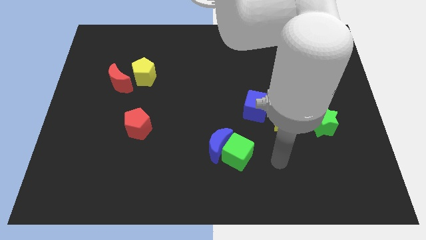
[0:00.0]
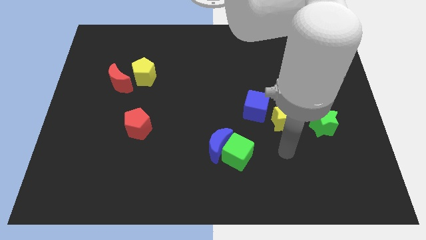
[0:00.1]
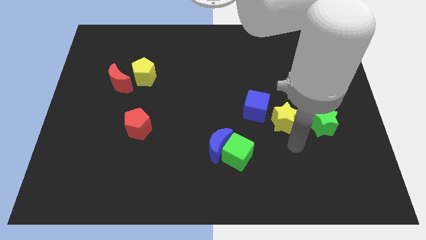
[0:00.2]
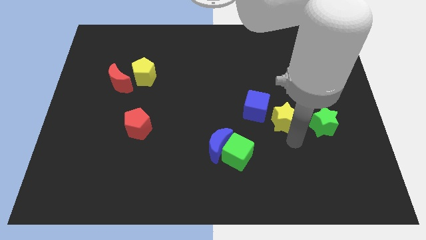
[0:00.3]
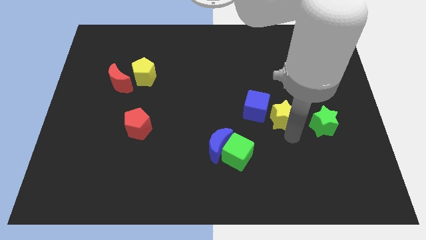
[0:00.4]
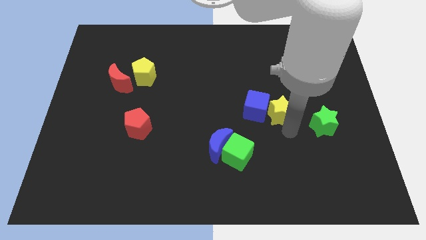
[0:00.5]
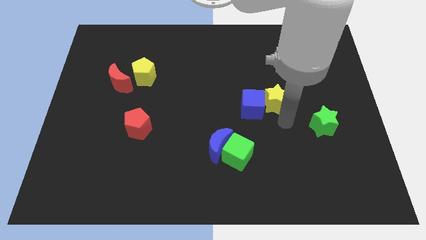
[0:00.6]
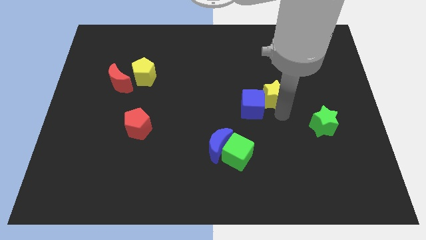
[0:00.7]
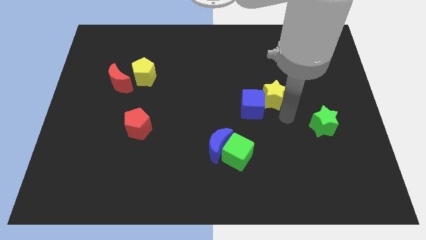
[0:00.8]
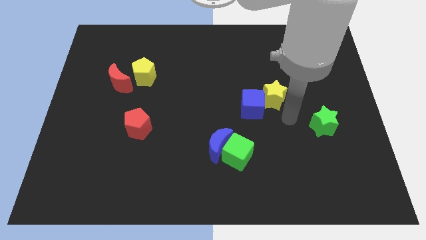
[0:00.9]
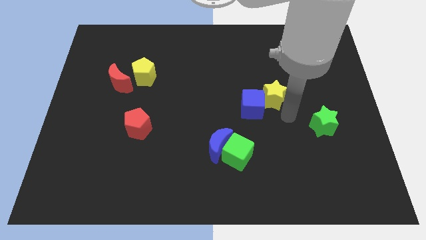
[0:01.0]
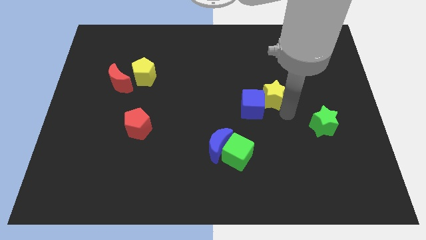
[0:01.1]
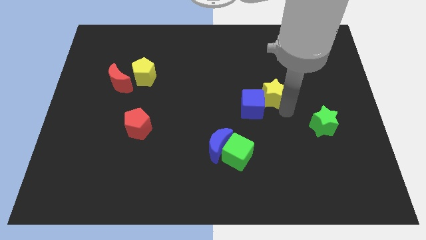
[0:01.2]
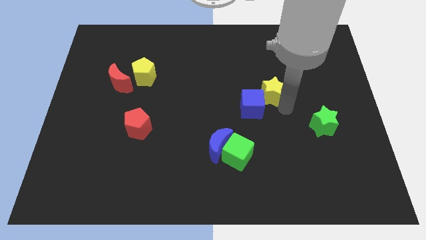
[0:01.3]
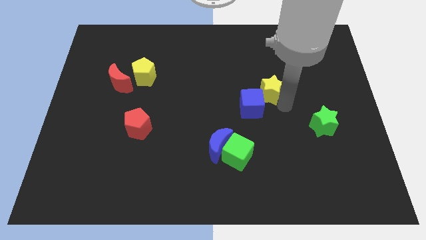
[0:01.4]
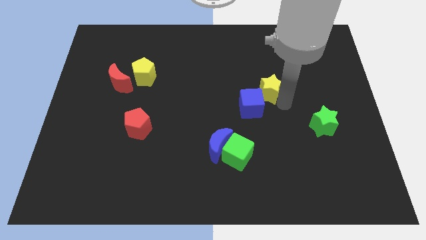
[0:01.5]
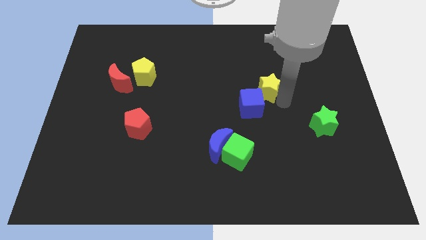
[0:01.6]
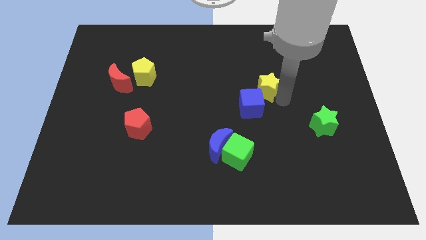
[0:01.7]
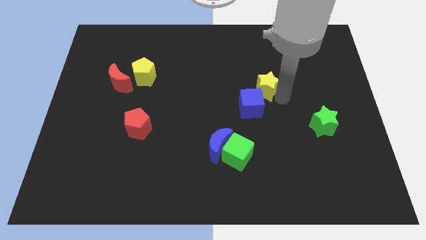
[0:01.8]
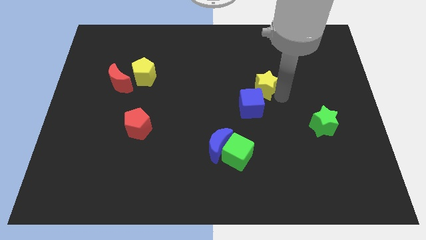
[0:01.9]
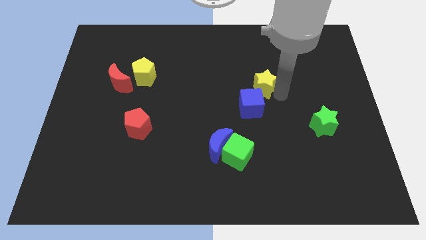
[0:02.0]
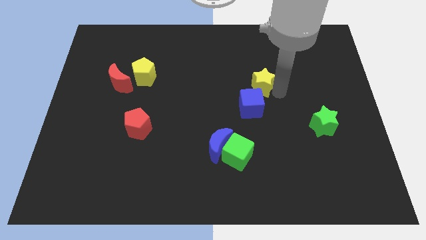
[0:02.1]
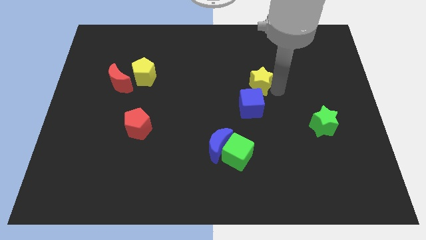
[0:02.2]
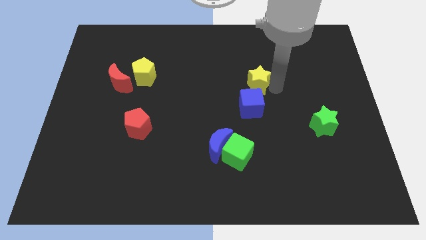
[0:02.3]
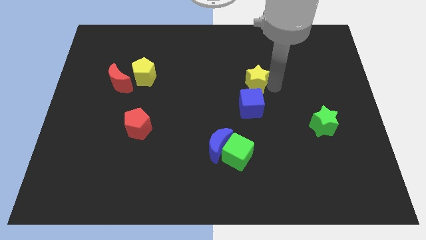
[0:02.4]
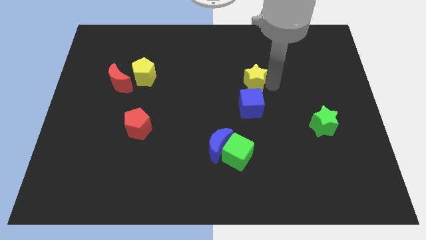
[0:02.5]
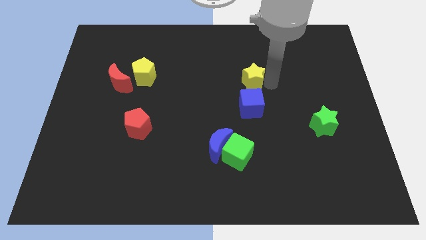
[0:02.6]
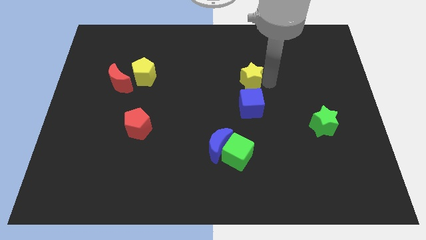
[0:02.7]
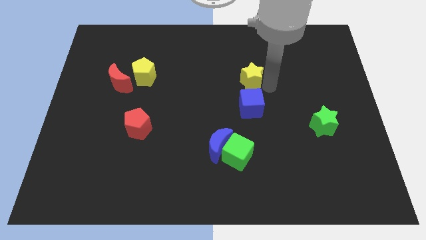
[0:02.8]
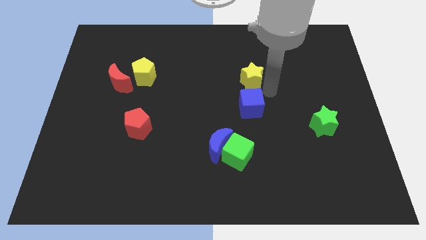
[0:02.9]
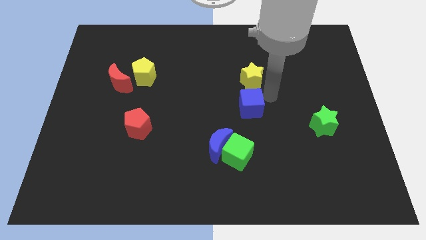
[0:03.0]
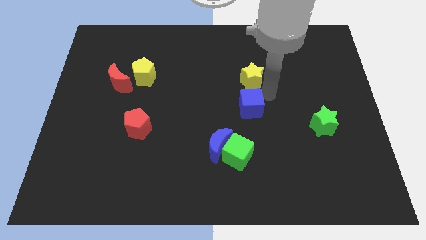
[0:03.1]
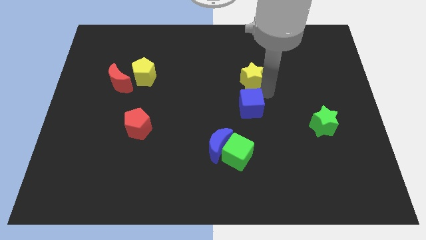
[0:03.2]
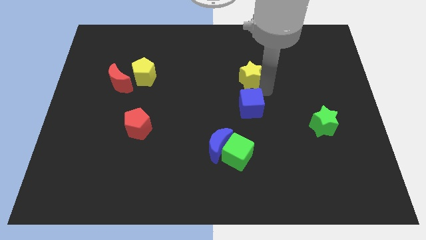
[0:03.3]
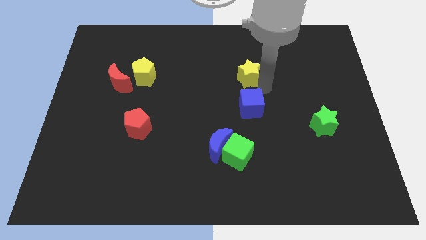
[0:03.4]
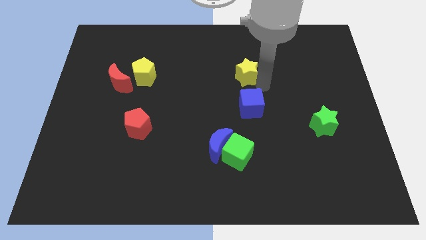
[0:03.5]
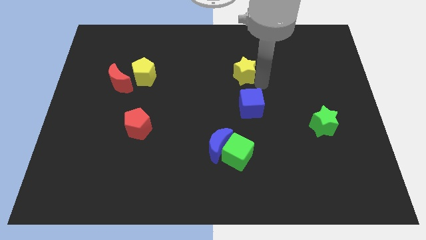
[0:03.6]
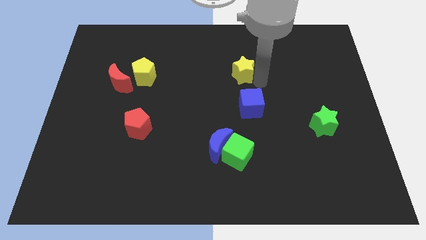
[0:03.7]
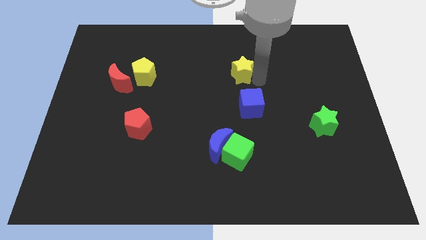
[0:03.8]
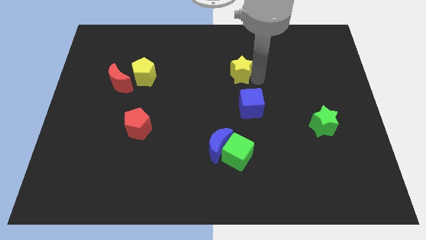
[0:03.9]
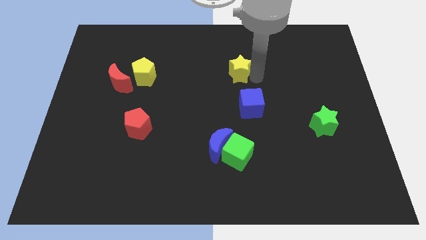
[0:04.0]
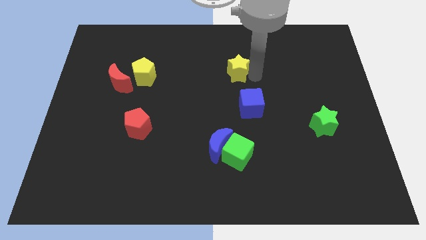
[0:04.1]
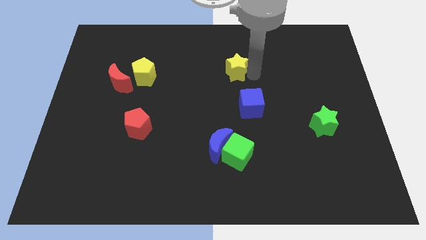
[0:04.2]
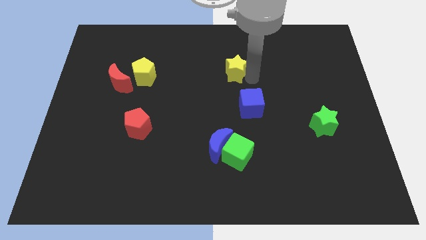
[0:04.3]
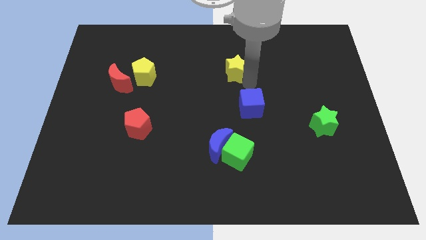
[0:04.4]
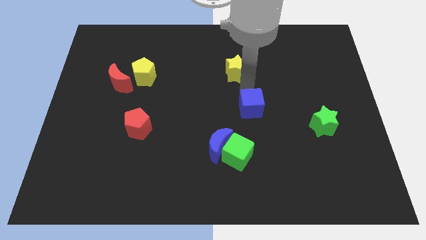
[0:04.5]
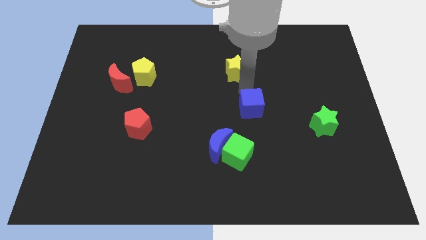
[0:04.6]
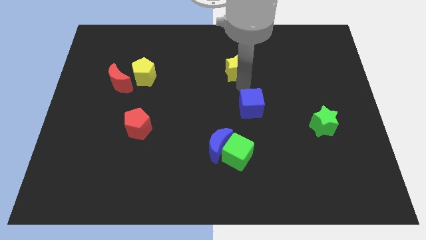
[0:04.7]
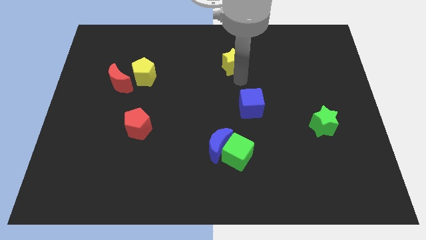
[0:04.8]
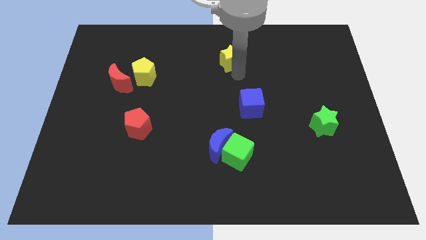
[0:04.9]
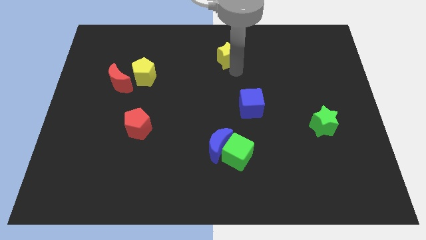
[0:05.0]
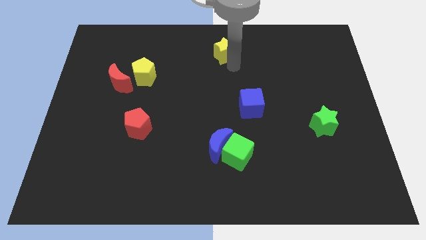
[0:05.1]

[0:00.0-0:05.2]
put the yellow star to the towards your base

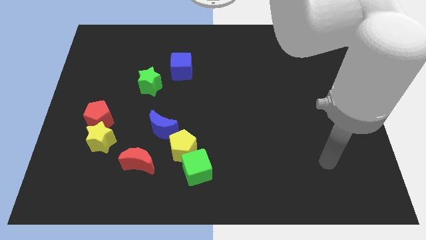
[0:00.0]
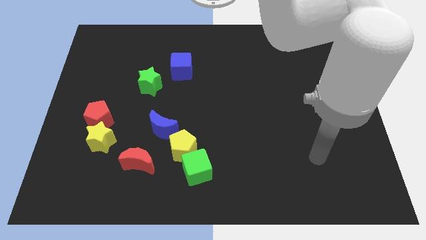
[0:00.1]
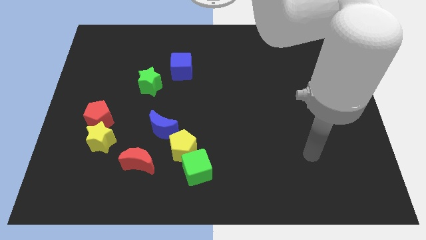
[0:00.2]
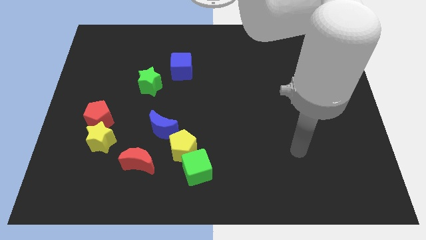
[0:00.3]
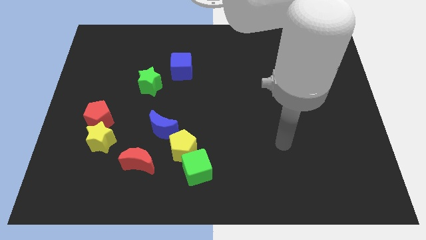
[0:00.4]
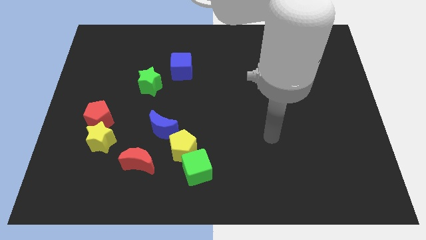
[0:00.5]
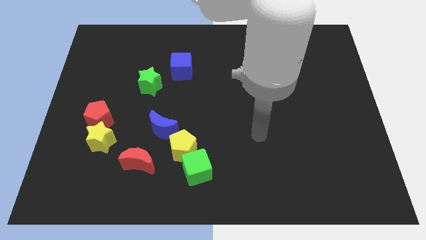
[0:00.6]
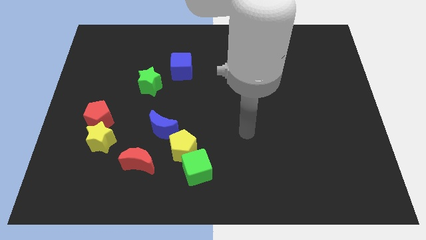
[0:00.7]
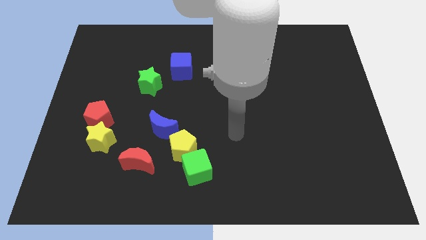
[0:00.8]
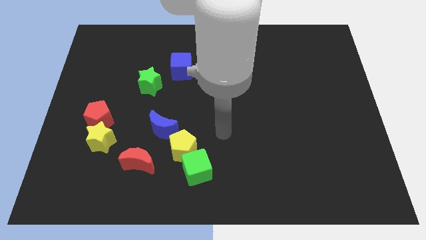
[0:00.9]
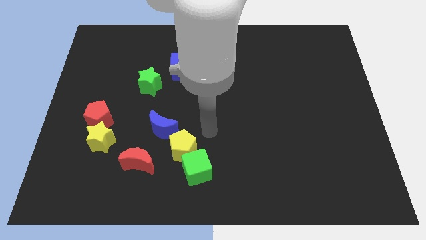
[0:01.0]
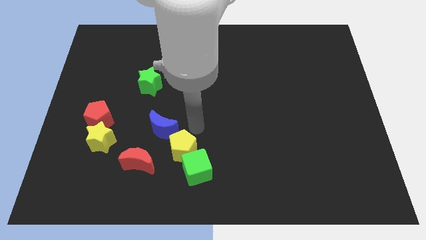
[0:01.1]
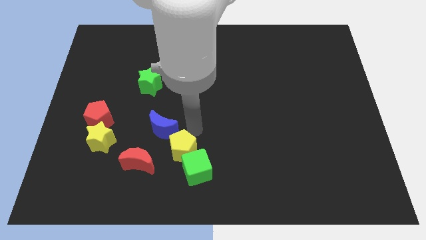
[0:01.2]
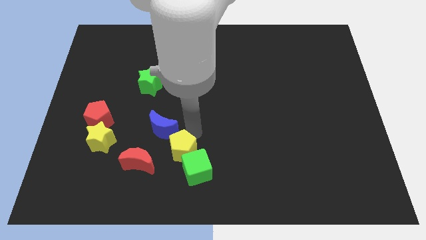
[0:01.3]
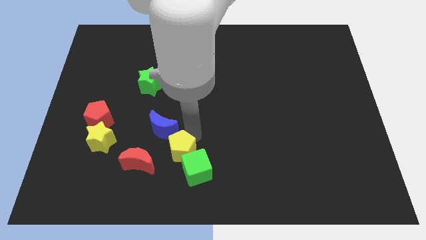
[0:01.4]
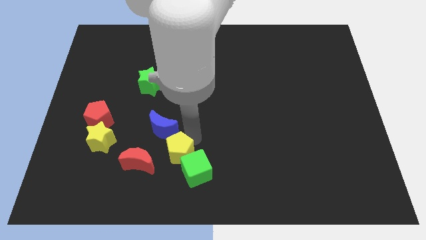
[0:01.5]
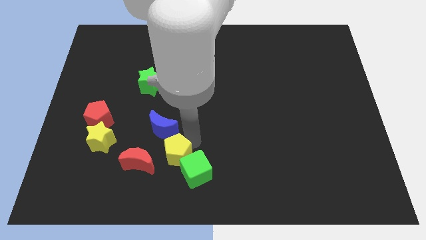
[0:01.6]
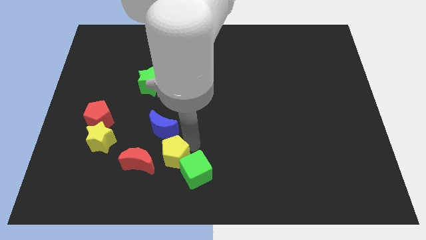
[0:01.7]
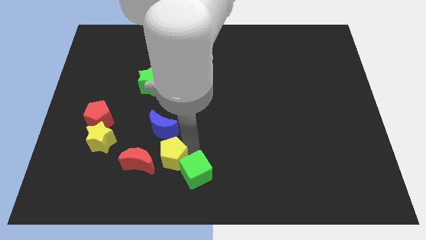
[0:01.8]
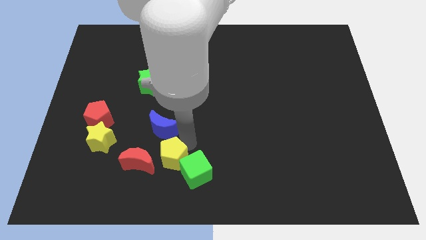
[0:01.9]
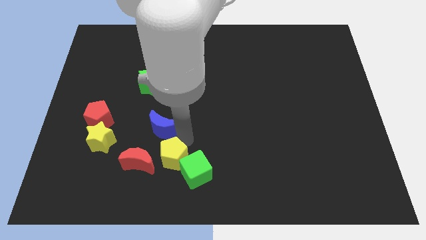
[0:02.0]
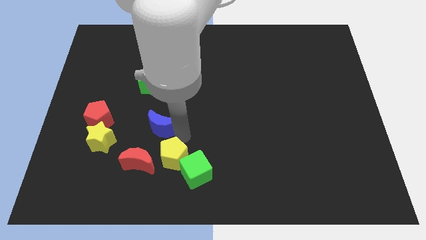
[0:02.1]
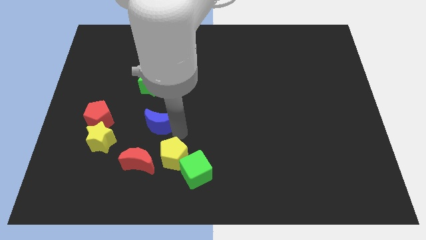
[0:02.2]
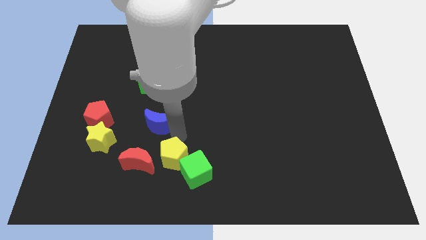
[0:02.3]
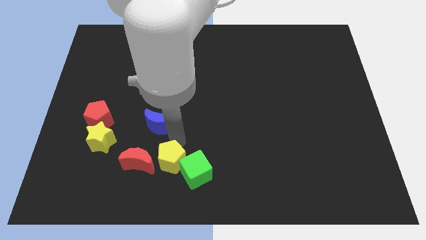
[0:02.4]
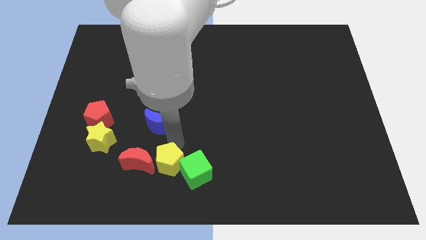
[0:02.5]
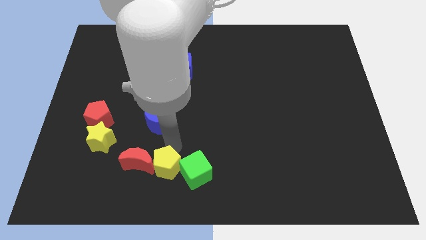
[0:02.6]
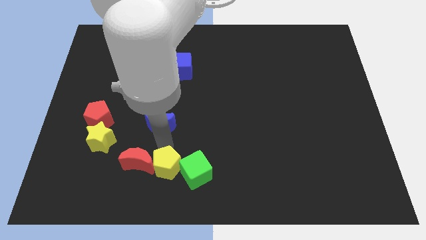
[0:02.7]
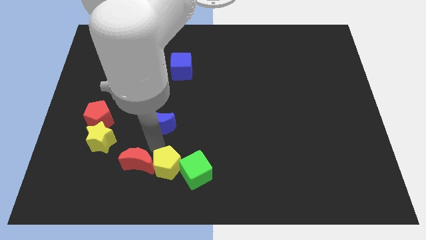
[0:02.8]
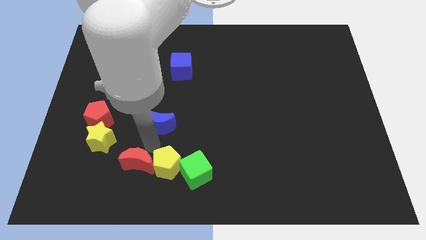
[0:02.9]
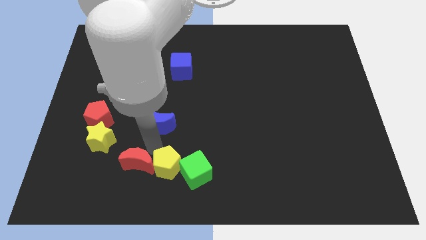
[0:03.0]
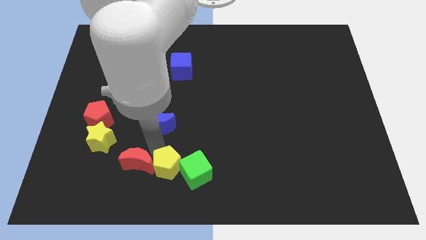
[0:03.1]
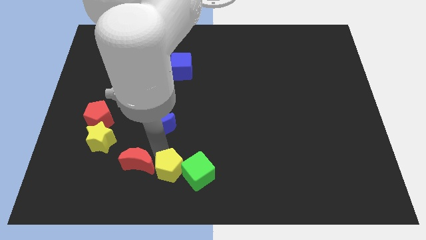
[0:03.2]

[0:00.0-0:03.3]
slide the yellow pentagon to the bottom
